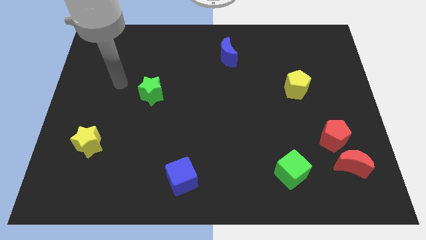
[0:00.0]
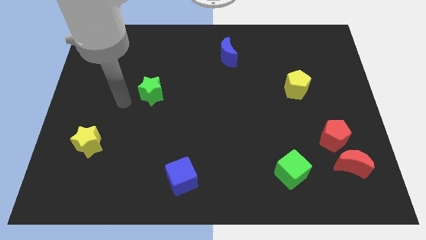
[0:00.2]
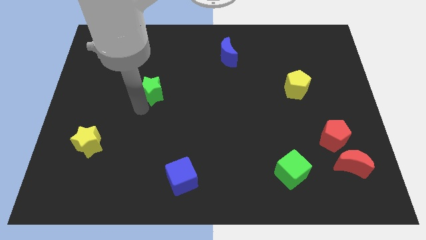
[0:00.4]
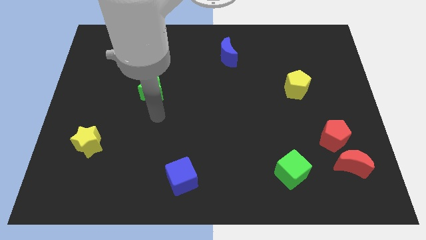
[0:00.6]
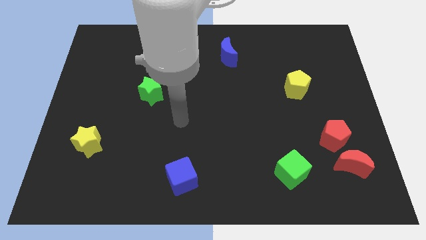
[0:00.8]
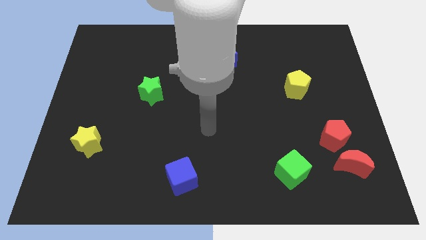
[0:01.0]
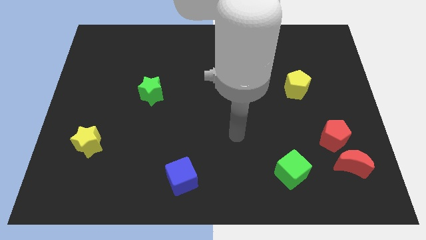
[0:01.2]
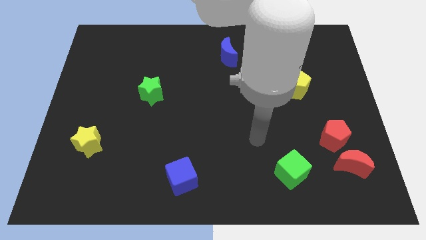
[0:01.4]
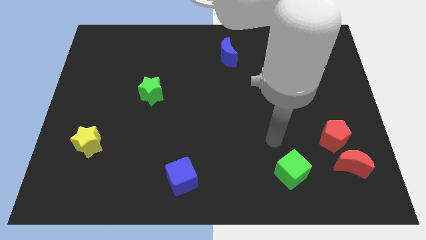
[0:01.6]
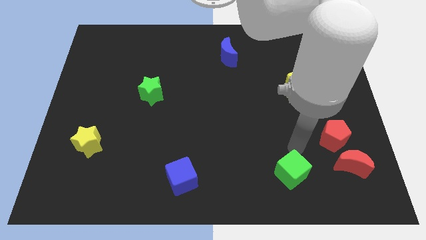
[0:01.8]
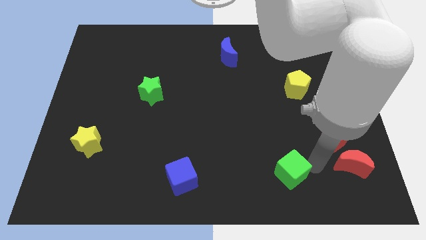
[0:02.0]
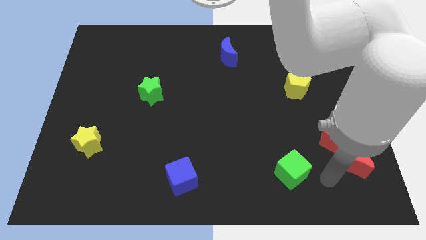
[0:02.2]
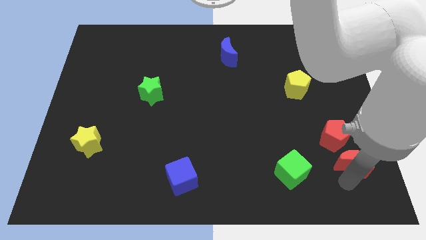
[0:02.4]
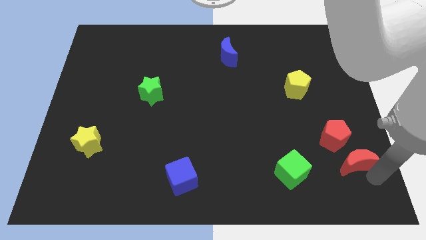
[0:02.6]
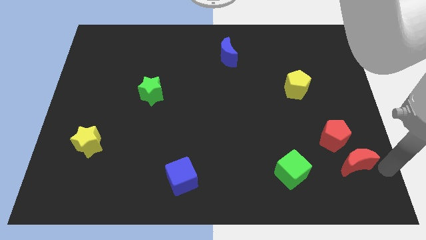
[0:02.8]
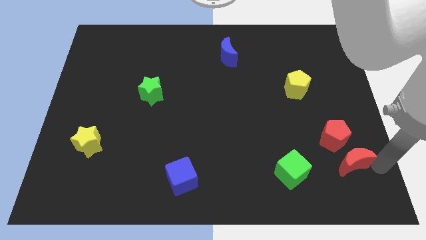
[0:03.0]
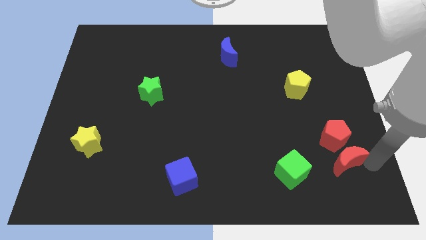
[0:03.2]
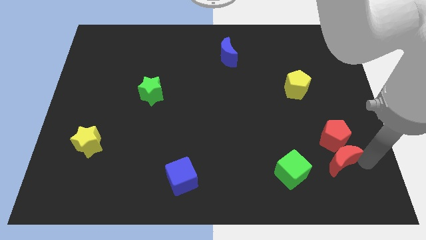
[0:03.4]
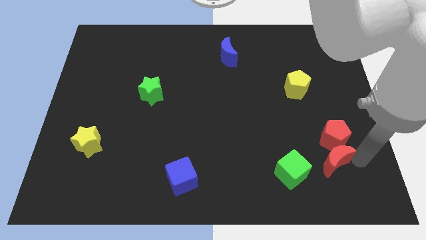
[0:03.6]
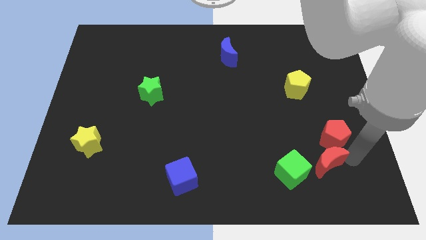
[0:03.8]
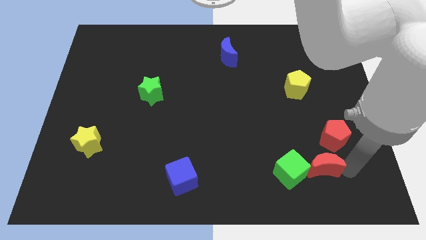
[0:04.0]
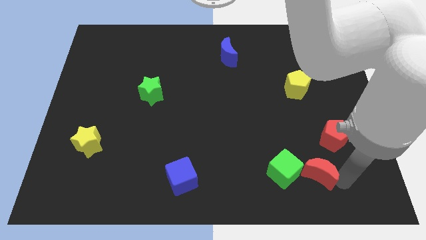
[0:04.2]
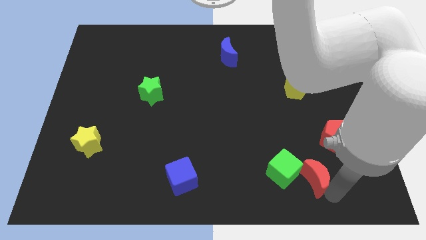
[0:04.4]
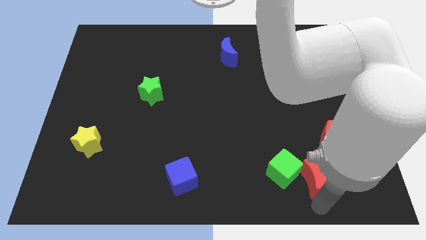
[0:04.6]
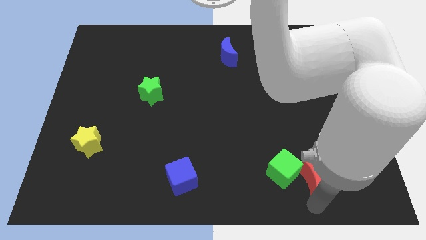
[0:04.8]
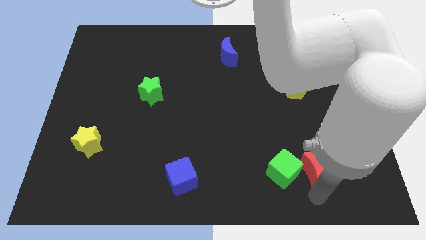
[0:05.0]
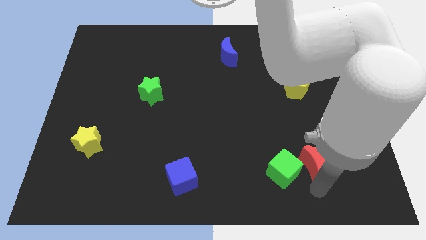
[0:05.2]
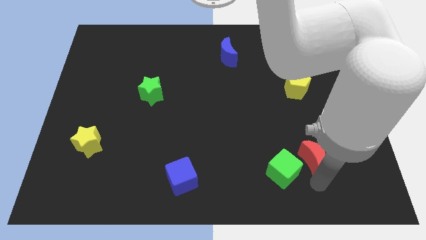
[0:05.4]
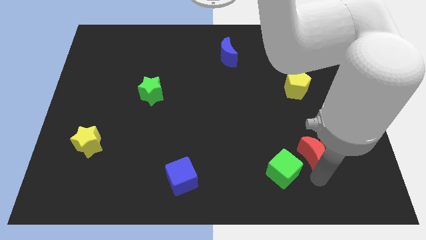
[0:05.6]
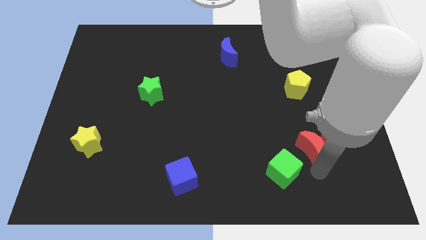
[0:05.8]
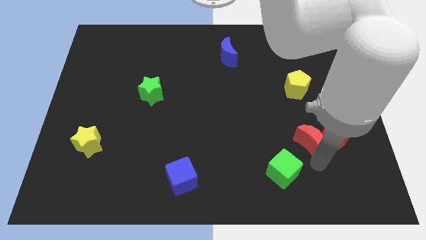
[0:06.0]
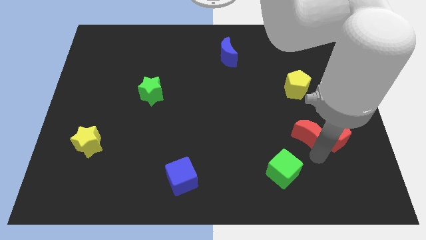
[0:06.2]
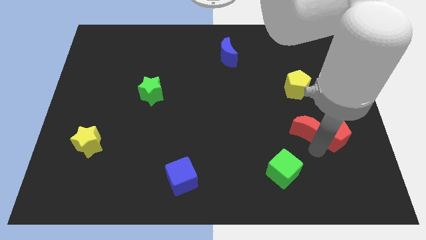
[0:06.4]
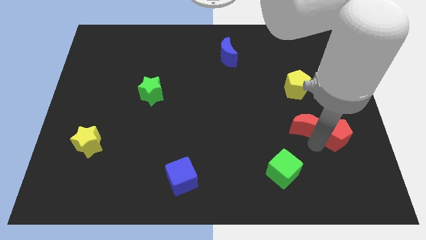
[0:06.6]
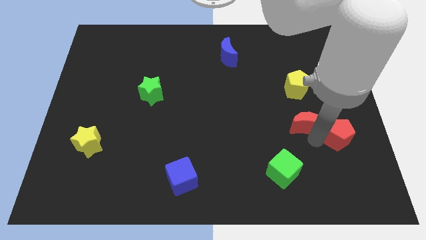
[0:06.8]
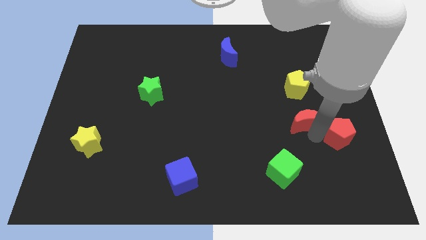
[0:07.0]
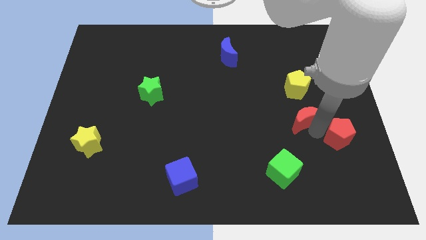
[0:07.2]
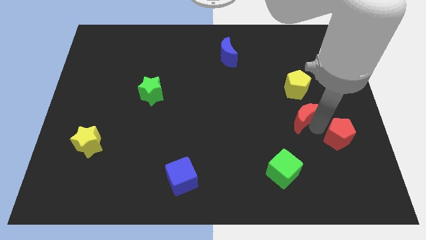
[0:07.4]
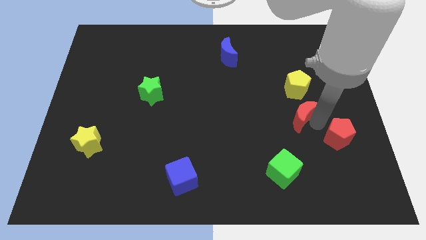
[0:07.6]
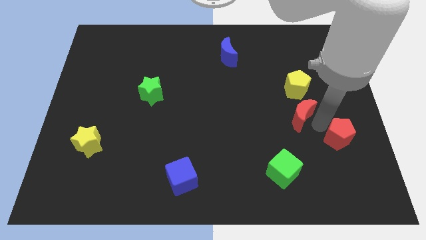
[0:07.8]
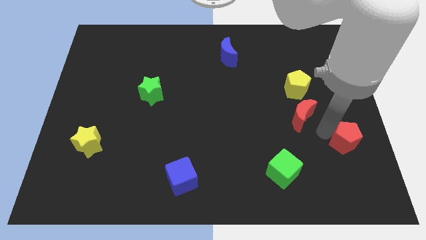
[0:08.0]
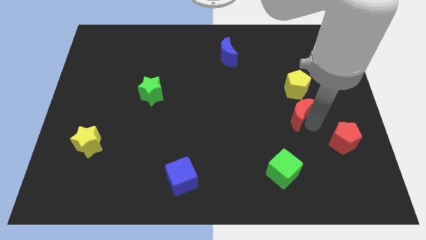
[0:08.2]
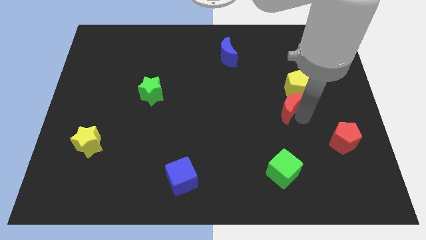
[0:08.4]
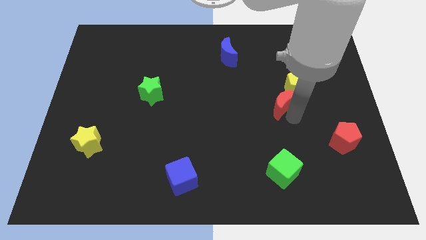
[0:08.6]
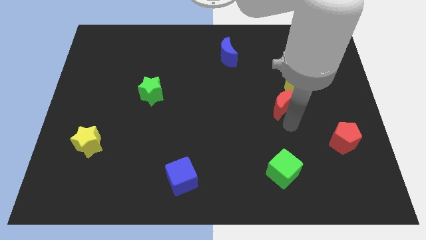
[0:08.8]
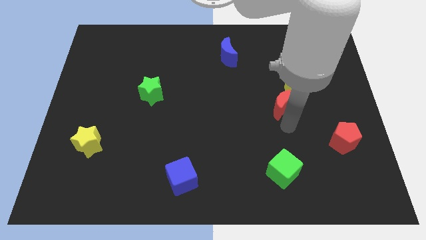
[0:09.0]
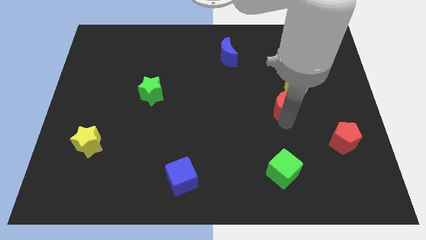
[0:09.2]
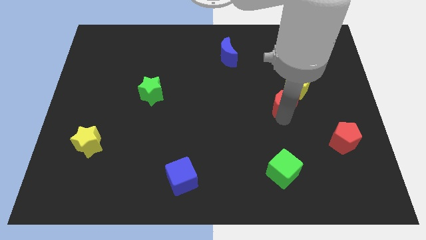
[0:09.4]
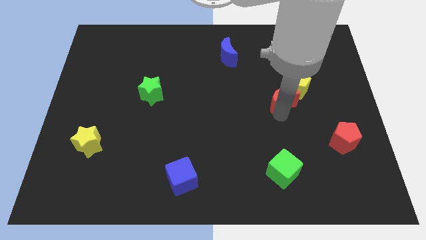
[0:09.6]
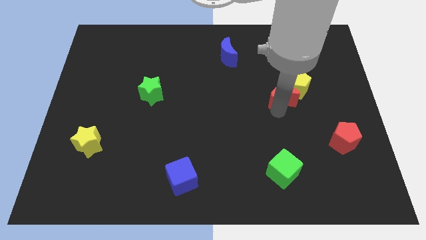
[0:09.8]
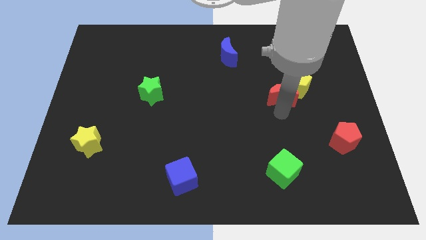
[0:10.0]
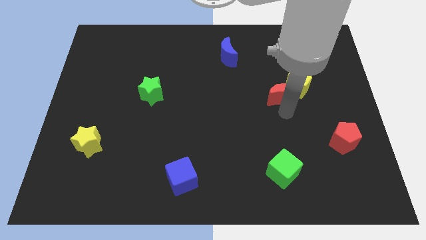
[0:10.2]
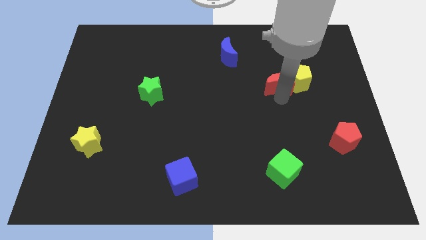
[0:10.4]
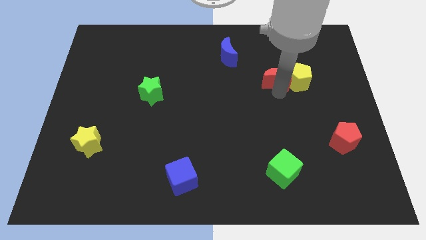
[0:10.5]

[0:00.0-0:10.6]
put the red moon to the top left of the yellow pentagon

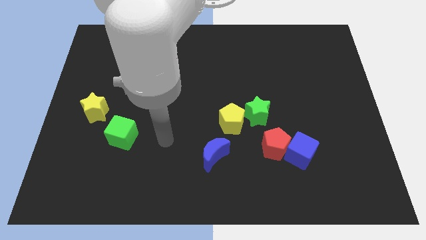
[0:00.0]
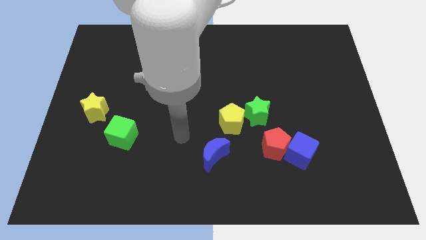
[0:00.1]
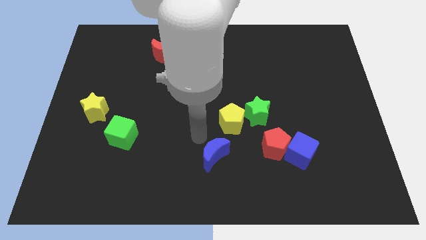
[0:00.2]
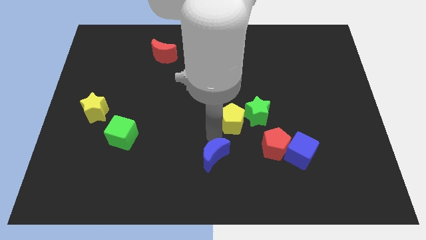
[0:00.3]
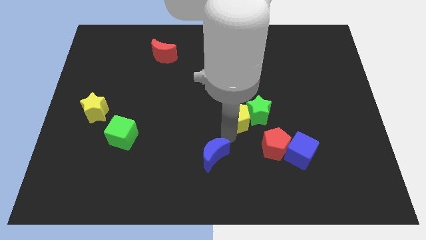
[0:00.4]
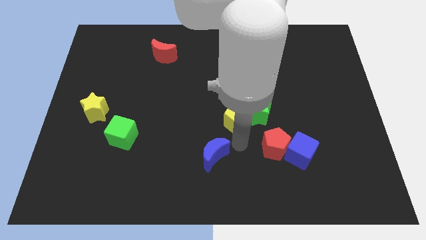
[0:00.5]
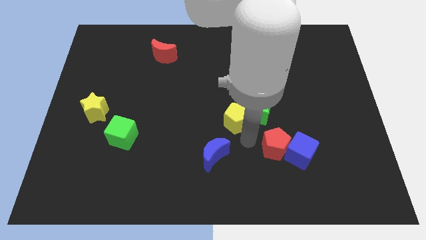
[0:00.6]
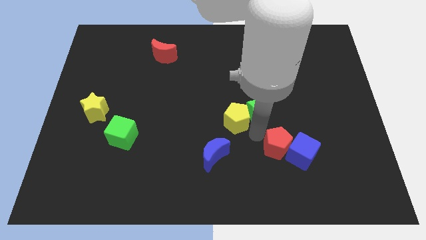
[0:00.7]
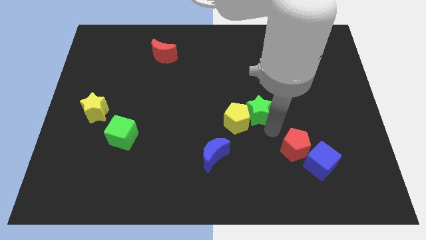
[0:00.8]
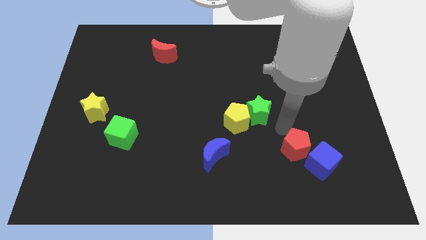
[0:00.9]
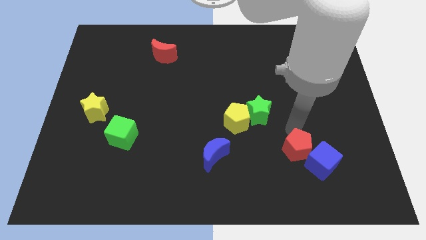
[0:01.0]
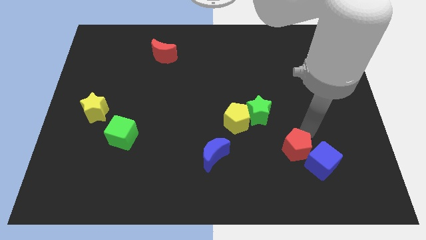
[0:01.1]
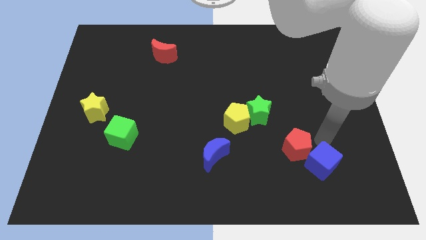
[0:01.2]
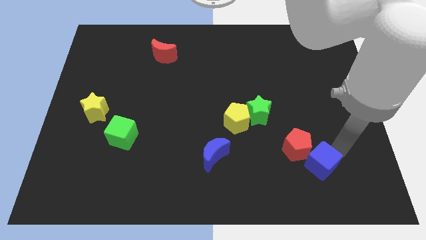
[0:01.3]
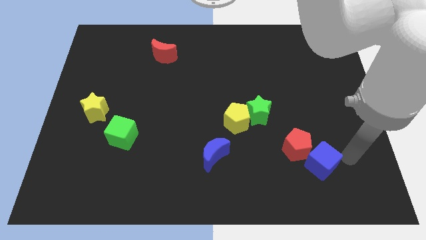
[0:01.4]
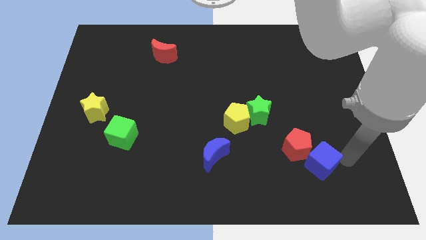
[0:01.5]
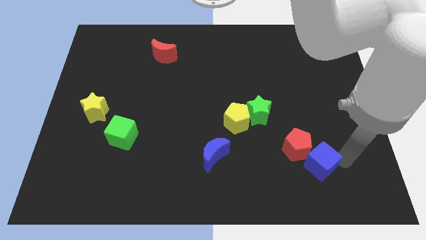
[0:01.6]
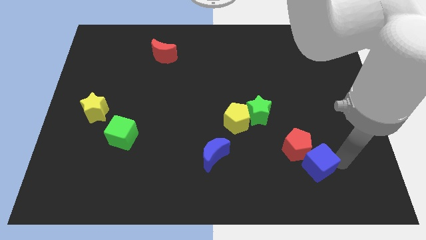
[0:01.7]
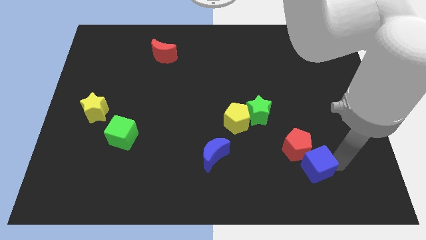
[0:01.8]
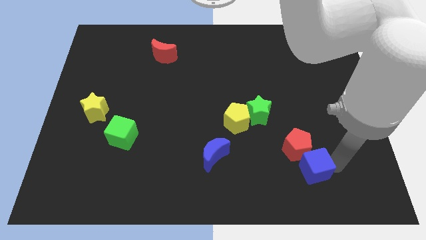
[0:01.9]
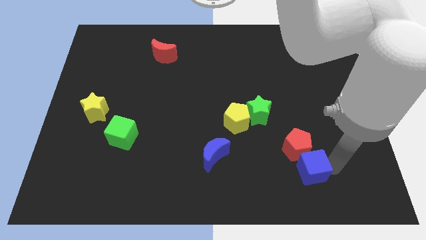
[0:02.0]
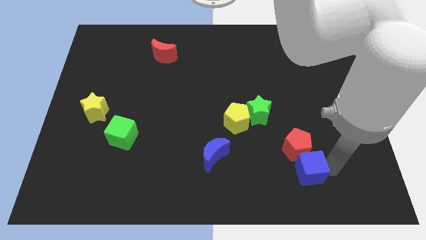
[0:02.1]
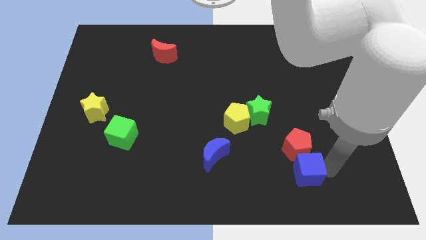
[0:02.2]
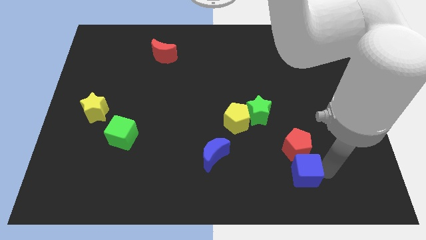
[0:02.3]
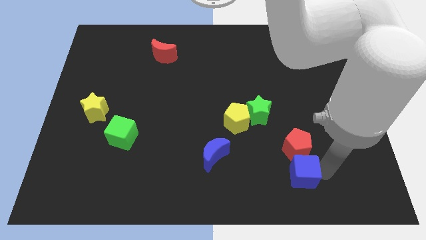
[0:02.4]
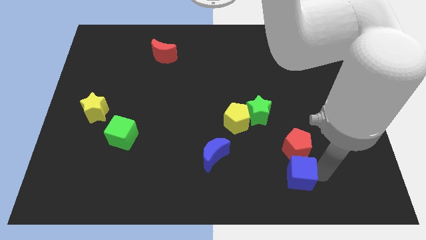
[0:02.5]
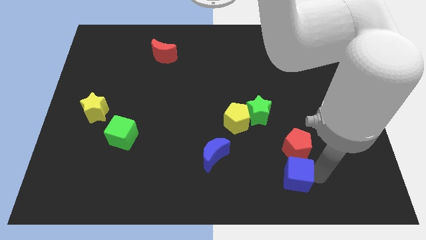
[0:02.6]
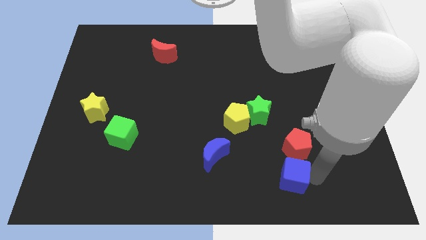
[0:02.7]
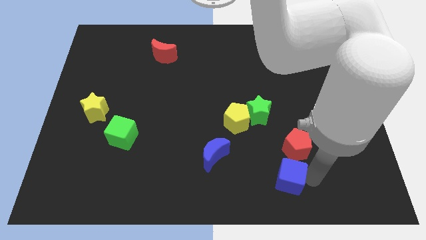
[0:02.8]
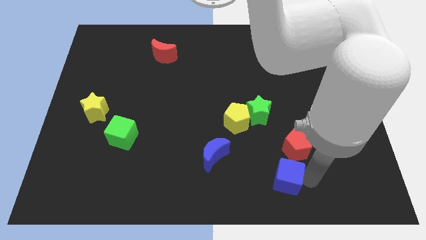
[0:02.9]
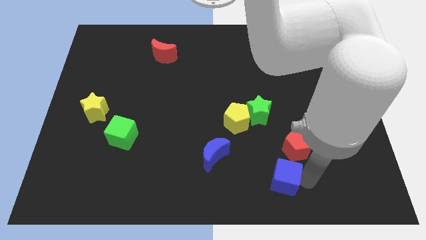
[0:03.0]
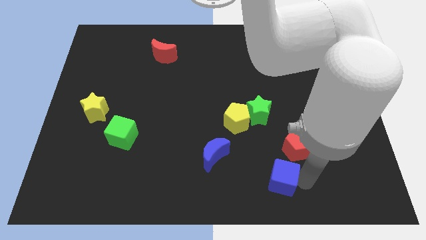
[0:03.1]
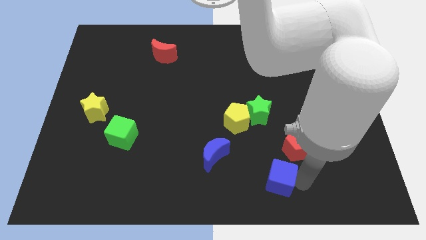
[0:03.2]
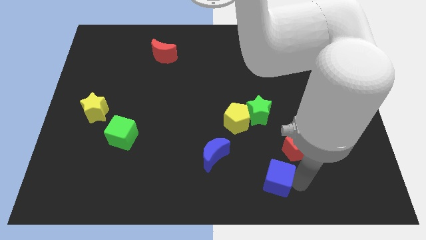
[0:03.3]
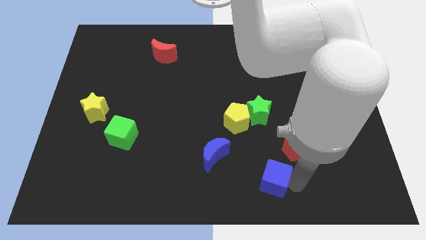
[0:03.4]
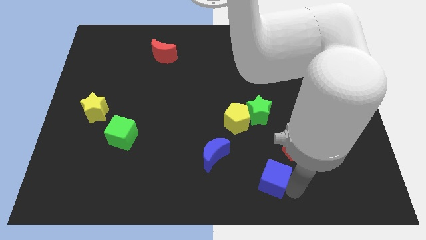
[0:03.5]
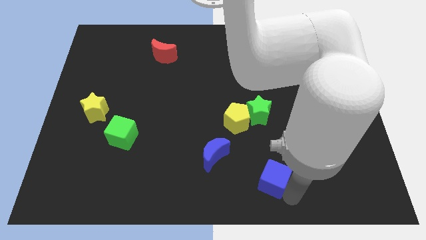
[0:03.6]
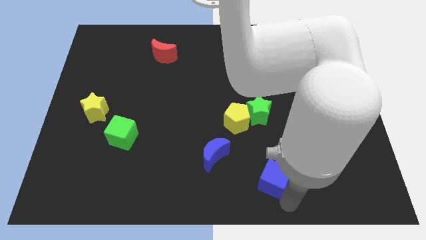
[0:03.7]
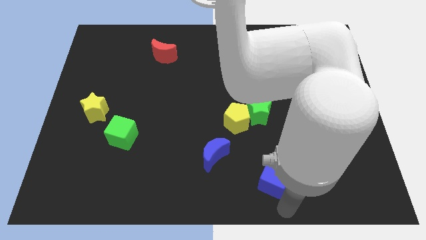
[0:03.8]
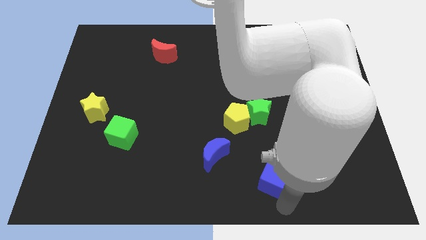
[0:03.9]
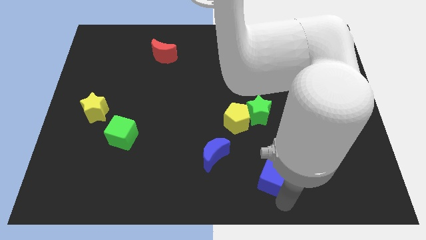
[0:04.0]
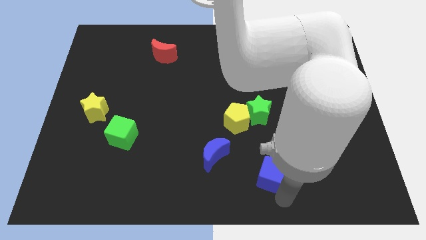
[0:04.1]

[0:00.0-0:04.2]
put the blue cube to the bottom side of the green star
